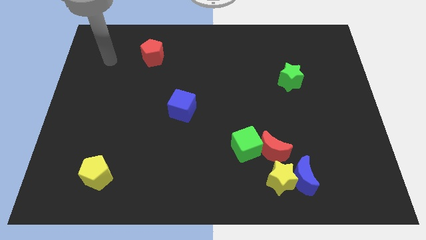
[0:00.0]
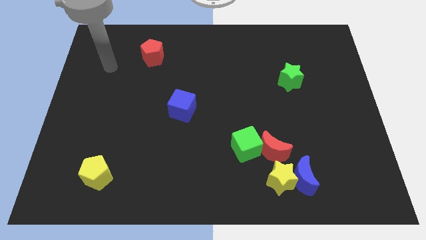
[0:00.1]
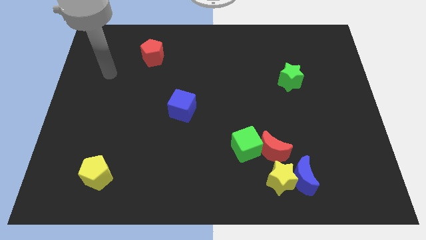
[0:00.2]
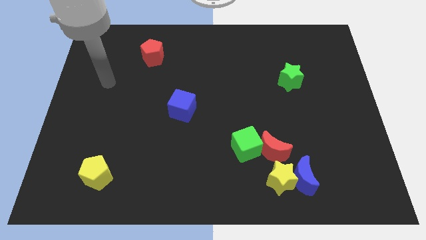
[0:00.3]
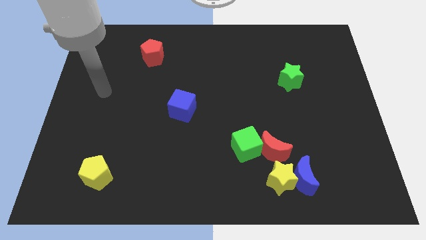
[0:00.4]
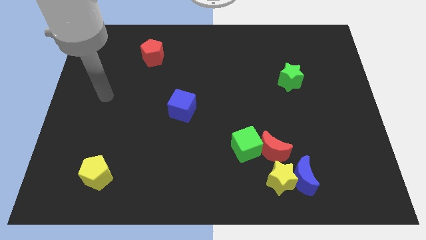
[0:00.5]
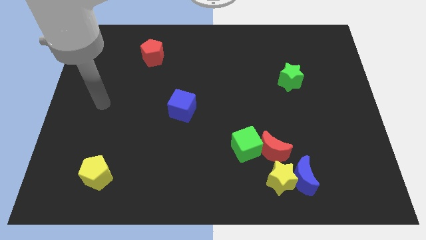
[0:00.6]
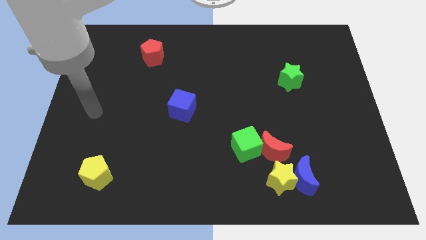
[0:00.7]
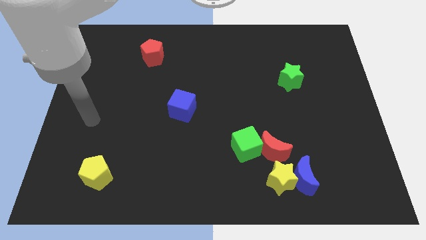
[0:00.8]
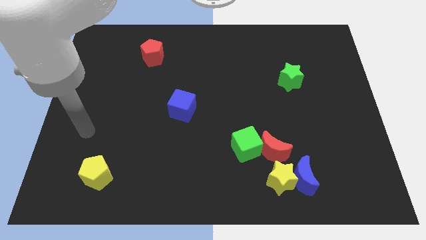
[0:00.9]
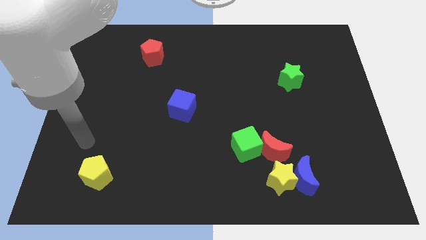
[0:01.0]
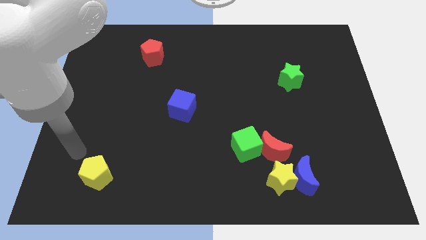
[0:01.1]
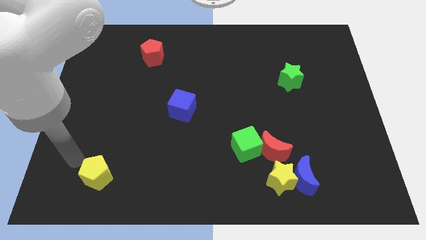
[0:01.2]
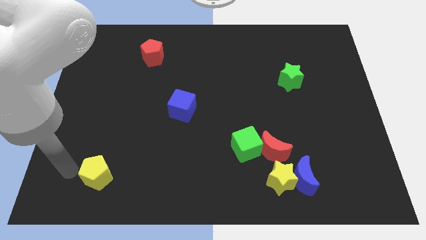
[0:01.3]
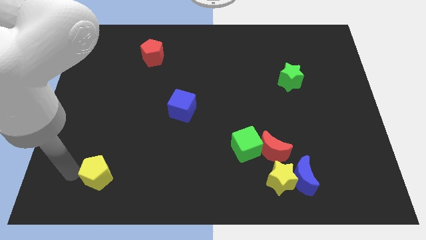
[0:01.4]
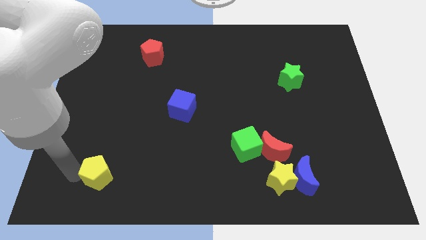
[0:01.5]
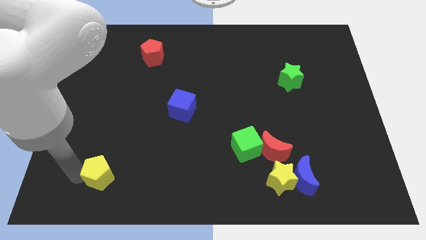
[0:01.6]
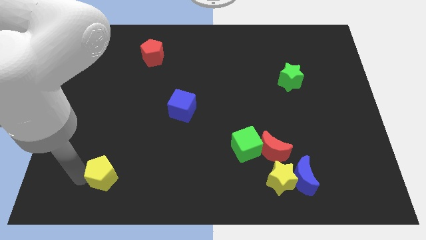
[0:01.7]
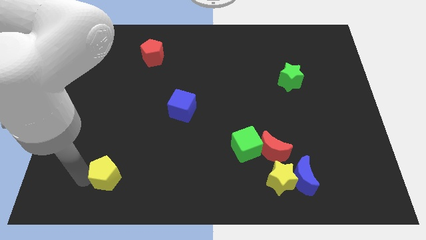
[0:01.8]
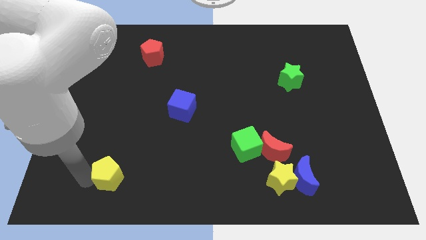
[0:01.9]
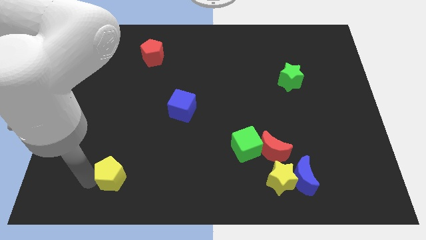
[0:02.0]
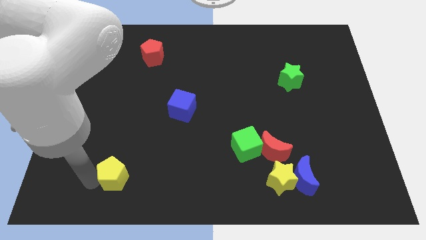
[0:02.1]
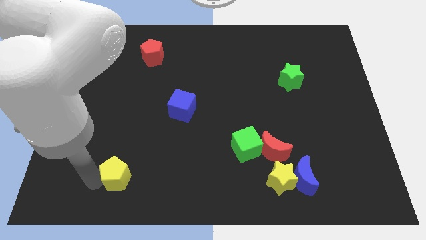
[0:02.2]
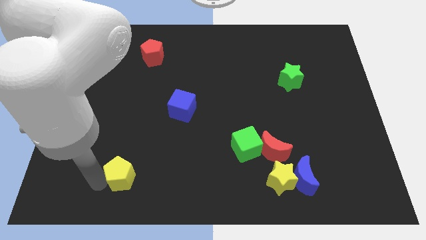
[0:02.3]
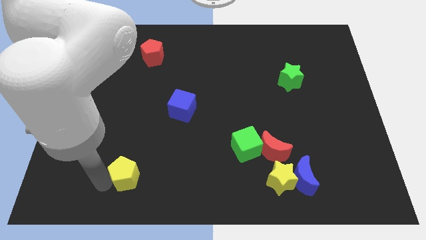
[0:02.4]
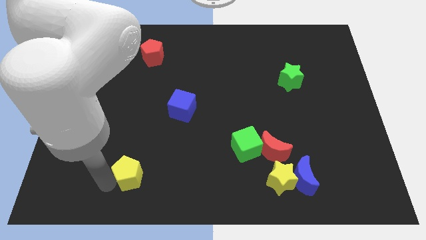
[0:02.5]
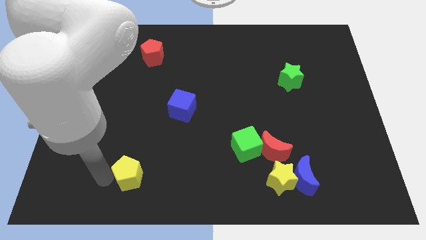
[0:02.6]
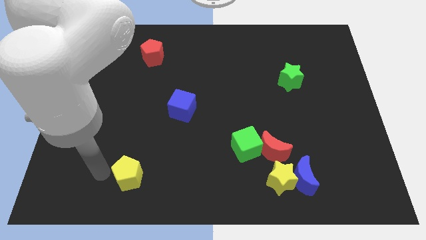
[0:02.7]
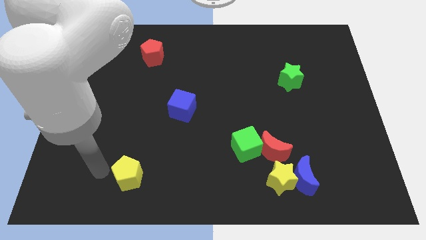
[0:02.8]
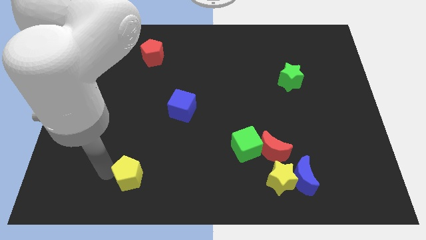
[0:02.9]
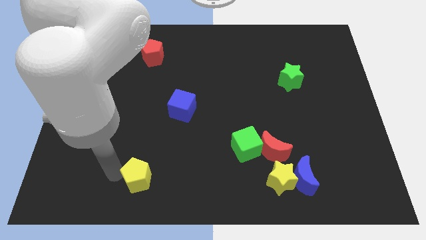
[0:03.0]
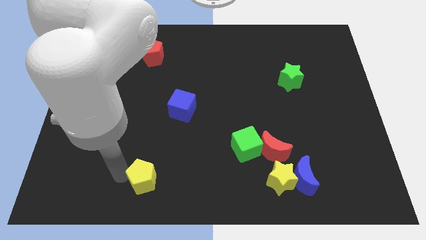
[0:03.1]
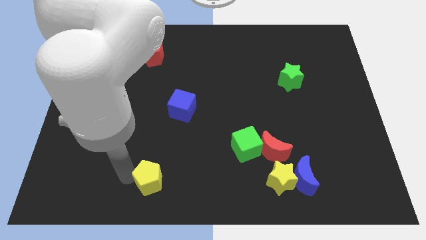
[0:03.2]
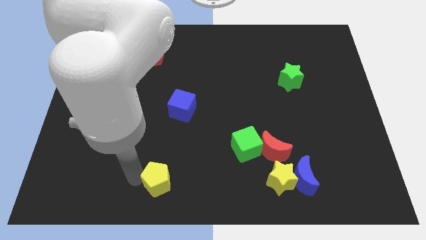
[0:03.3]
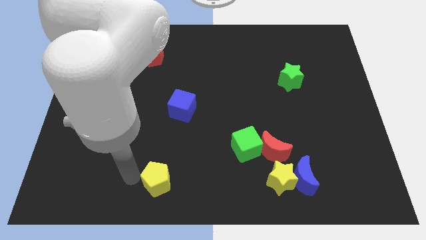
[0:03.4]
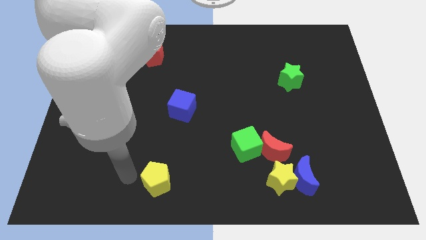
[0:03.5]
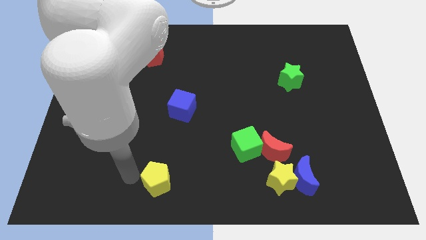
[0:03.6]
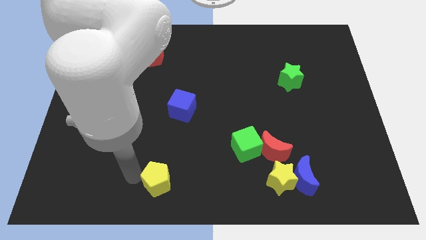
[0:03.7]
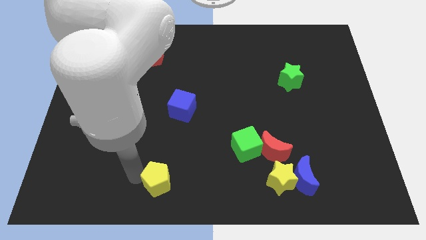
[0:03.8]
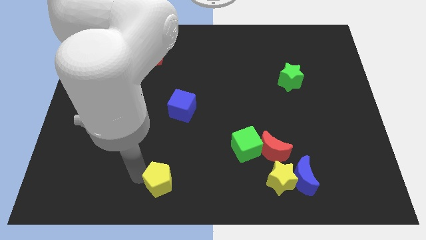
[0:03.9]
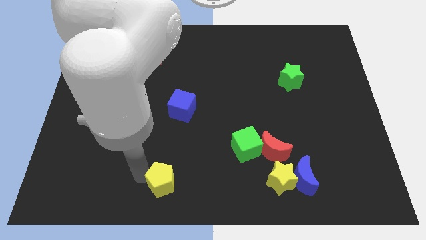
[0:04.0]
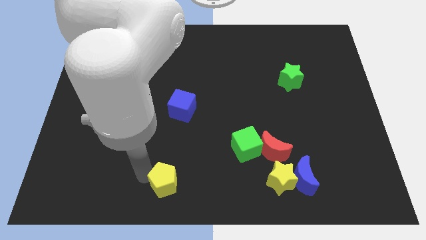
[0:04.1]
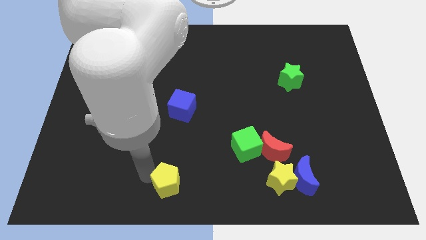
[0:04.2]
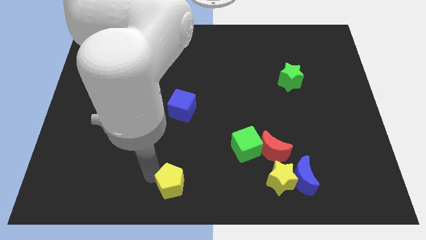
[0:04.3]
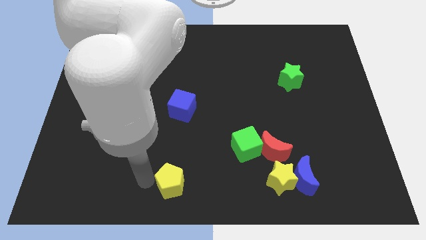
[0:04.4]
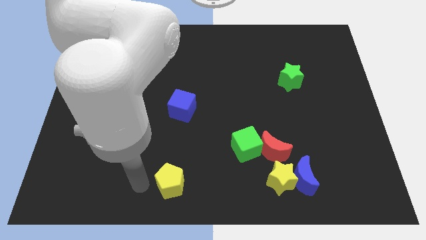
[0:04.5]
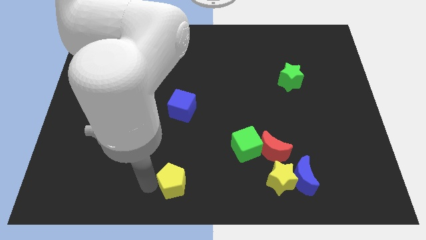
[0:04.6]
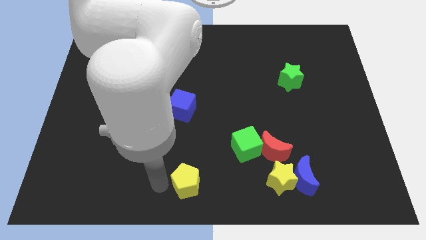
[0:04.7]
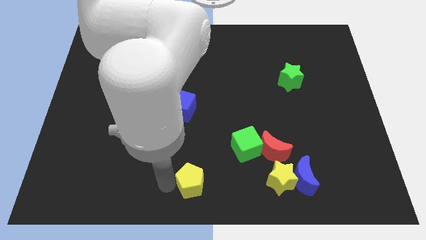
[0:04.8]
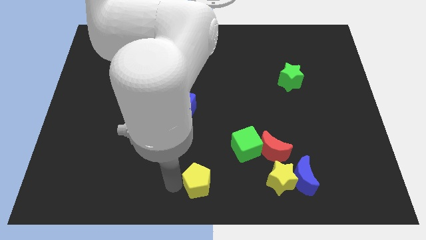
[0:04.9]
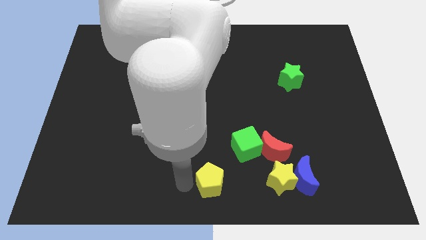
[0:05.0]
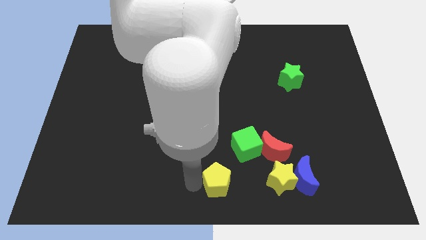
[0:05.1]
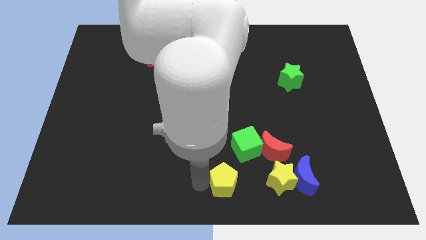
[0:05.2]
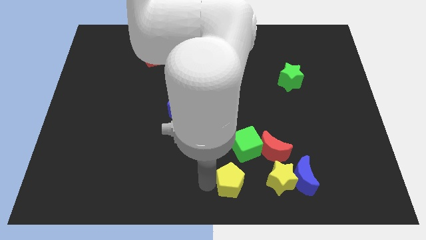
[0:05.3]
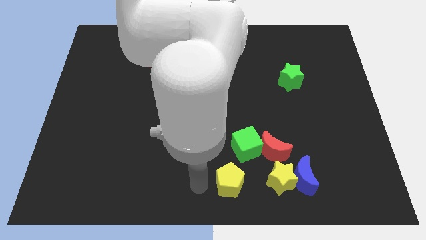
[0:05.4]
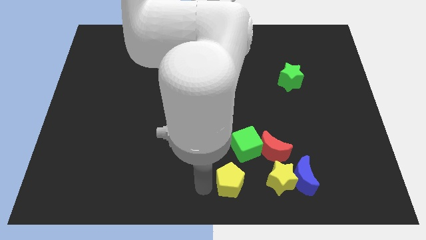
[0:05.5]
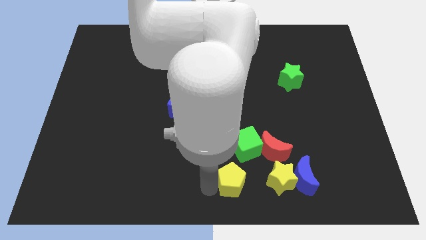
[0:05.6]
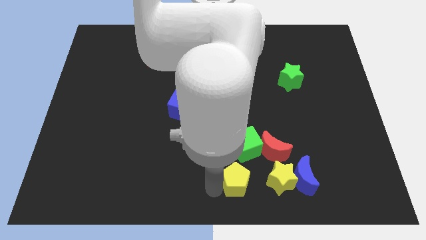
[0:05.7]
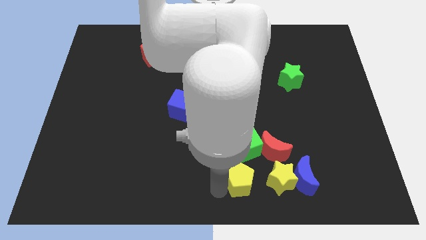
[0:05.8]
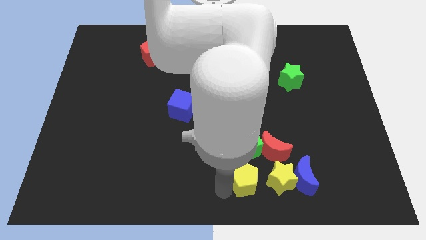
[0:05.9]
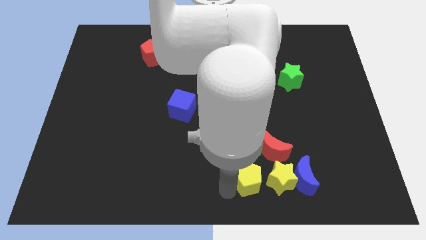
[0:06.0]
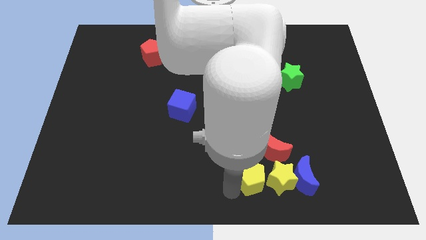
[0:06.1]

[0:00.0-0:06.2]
move the yellow pentagon close to the yellow star

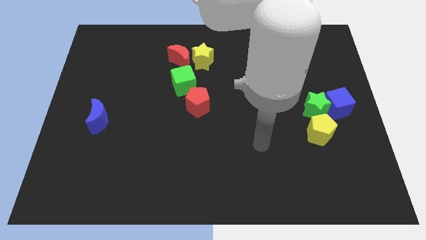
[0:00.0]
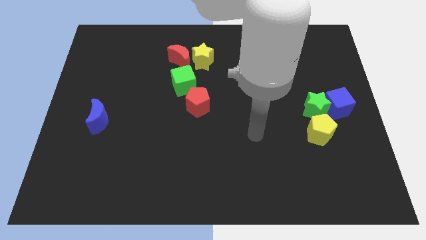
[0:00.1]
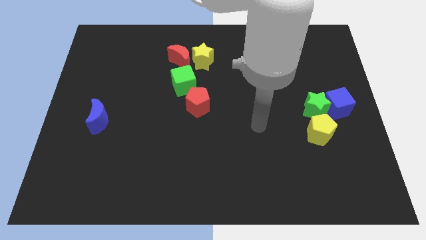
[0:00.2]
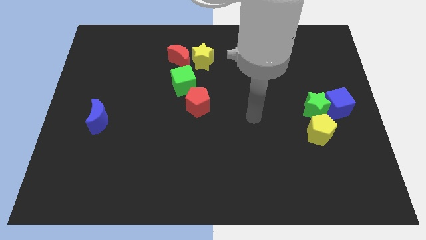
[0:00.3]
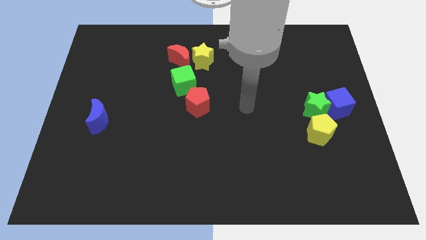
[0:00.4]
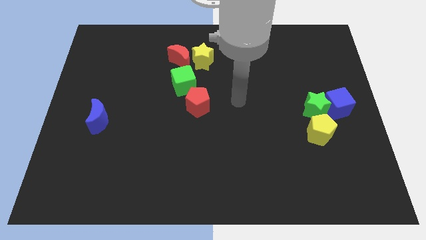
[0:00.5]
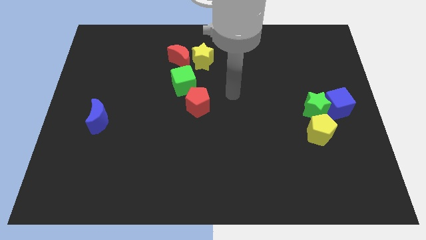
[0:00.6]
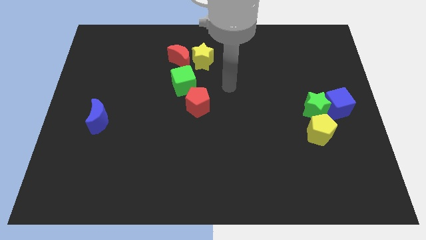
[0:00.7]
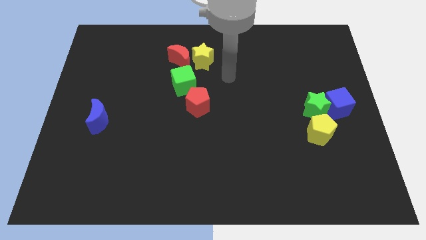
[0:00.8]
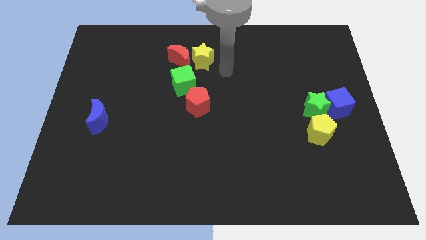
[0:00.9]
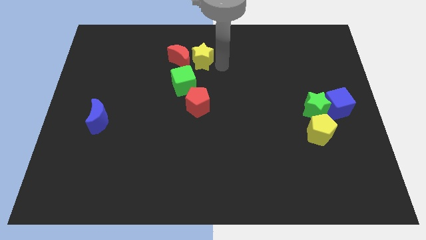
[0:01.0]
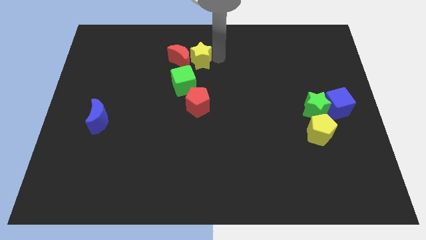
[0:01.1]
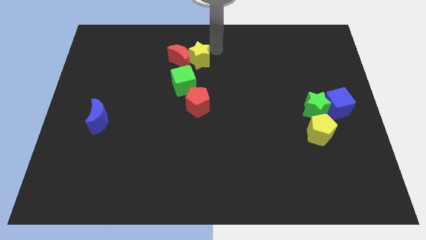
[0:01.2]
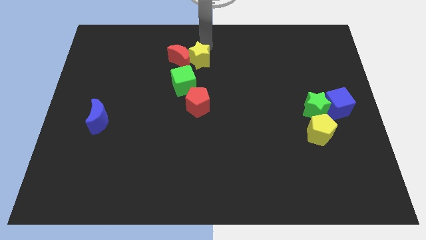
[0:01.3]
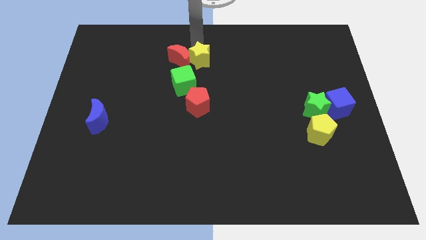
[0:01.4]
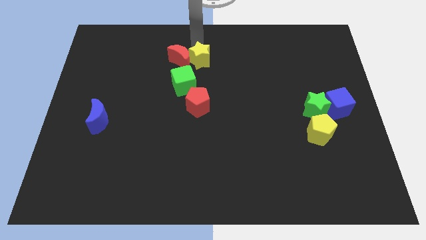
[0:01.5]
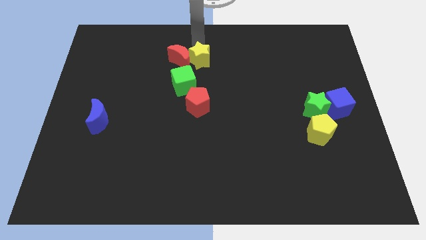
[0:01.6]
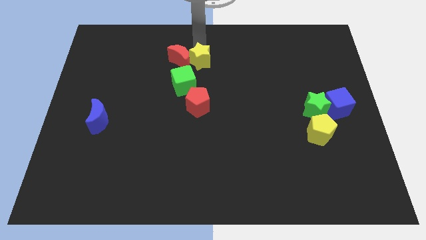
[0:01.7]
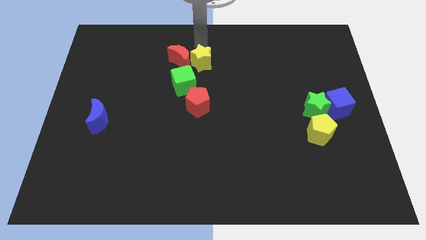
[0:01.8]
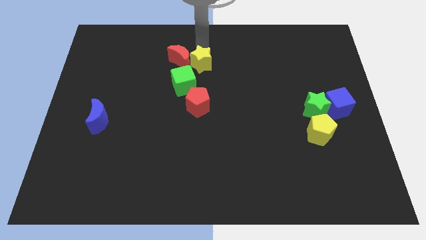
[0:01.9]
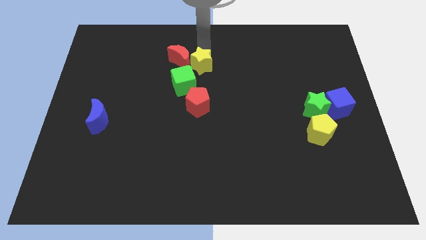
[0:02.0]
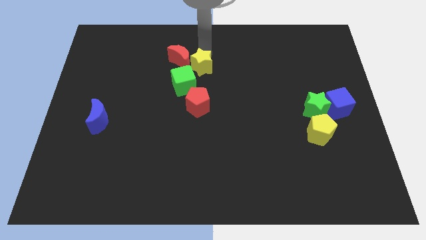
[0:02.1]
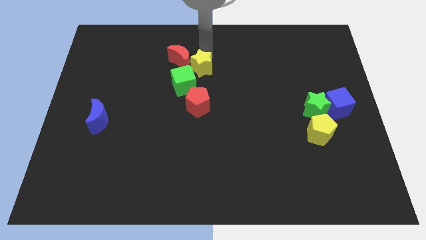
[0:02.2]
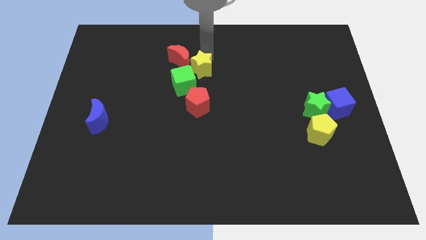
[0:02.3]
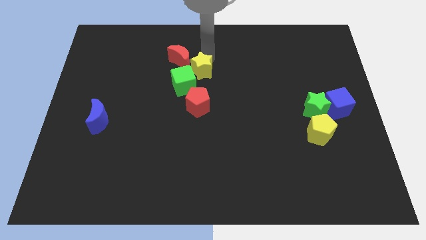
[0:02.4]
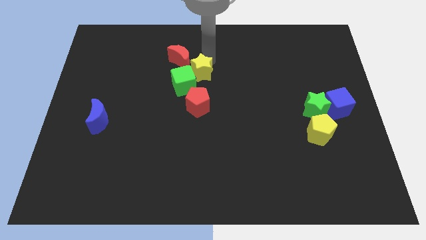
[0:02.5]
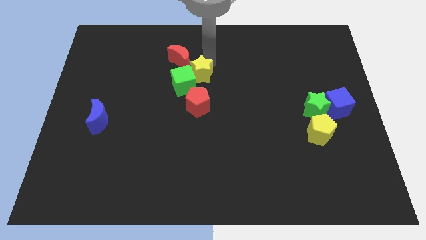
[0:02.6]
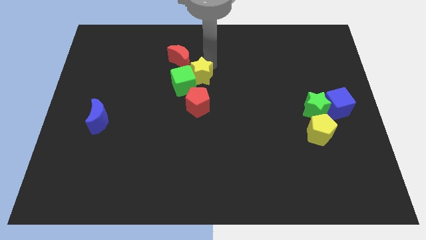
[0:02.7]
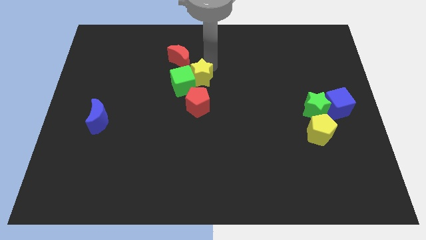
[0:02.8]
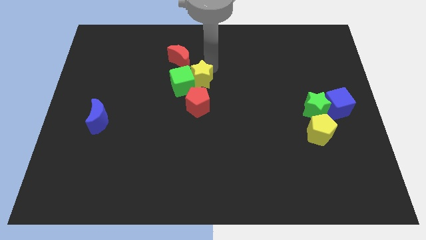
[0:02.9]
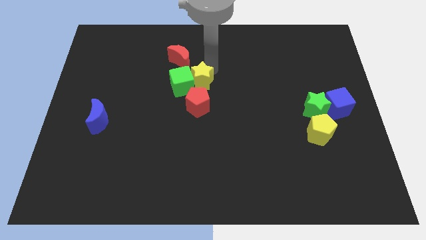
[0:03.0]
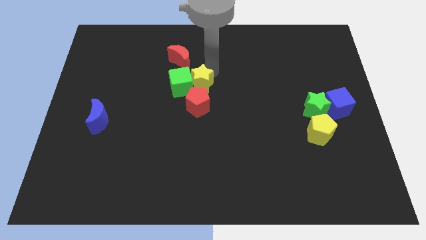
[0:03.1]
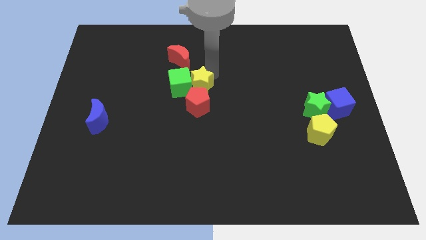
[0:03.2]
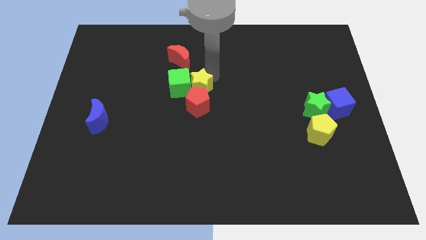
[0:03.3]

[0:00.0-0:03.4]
put the yellow star close to the red pentagon
